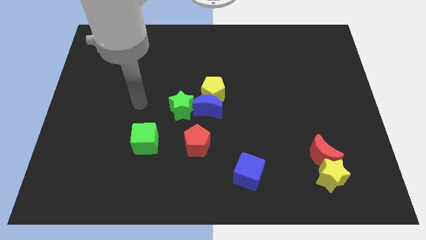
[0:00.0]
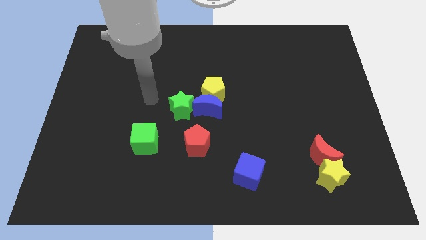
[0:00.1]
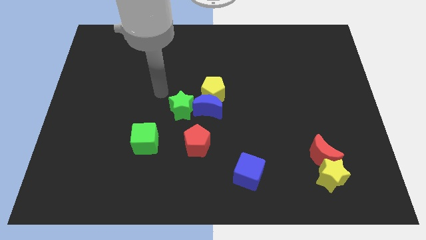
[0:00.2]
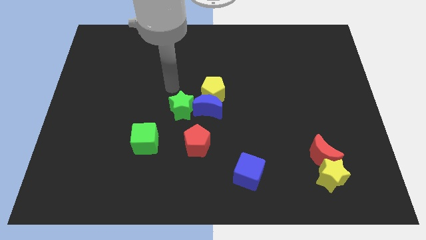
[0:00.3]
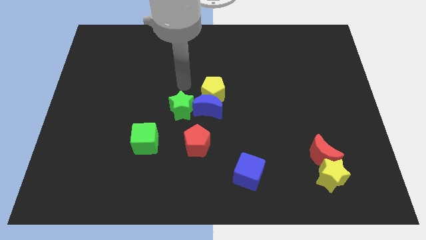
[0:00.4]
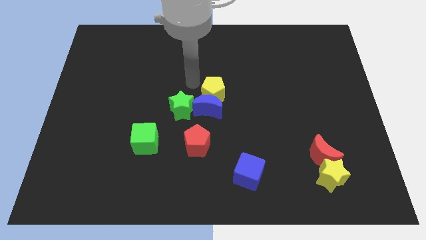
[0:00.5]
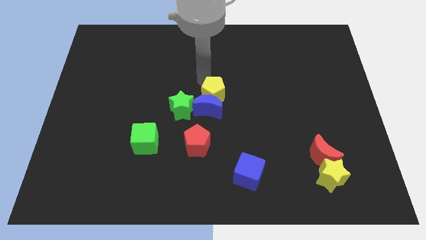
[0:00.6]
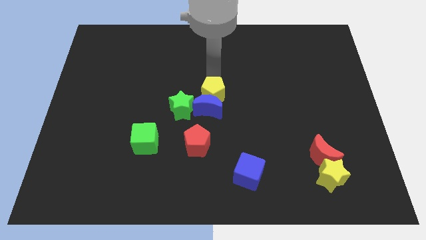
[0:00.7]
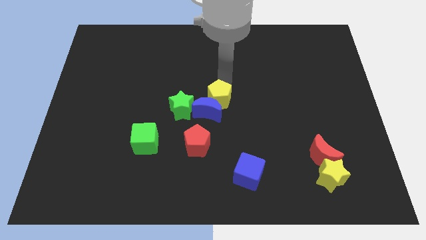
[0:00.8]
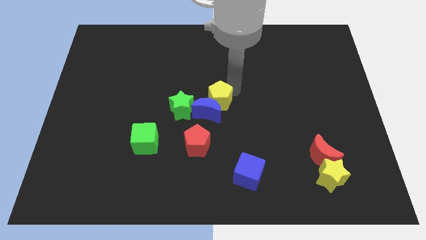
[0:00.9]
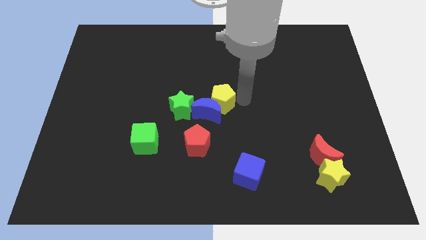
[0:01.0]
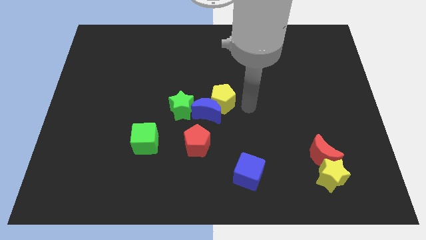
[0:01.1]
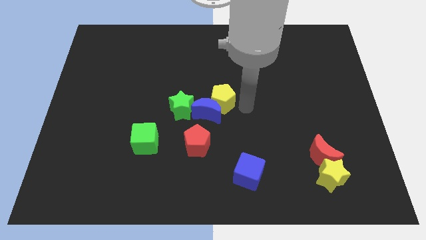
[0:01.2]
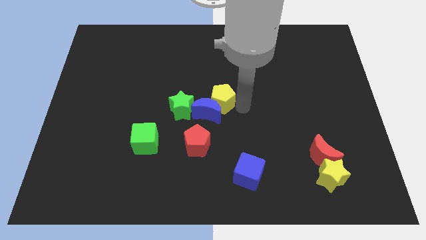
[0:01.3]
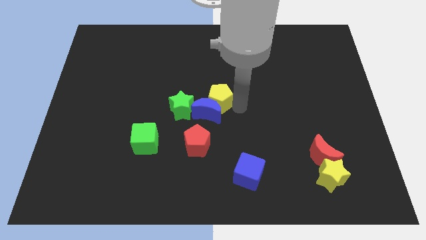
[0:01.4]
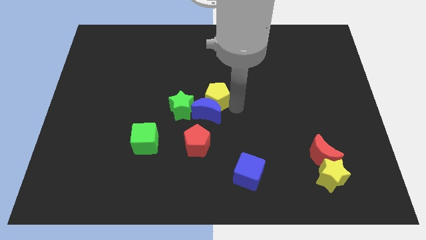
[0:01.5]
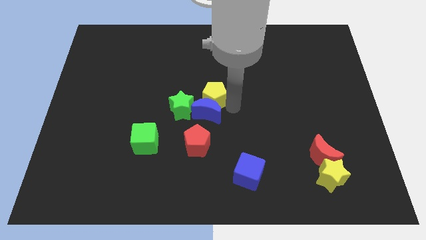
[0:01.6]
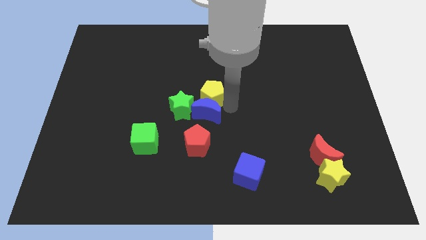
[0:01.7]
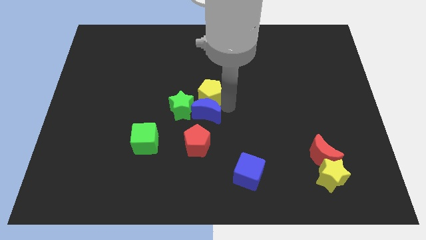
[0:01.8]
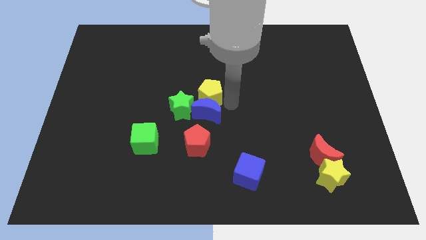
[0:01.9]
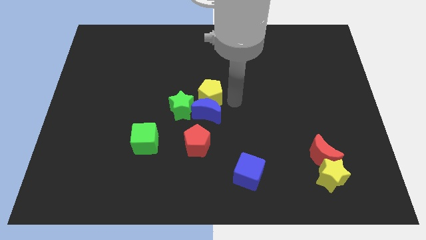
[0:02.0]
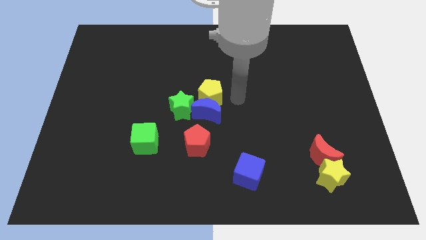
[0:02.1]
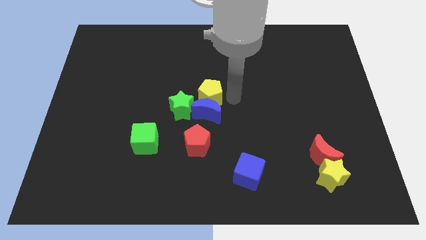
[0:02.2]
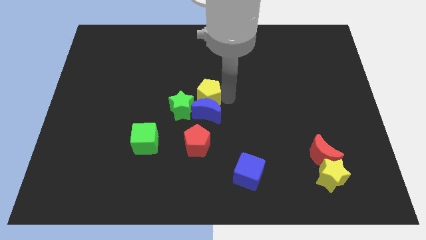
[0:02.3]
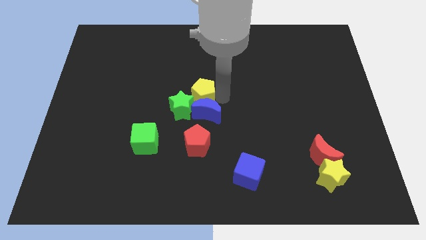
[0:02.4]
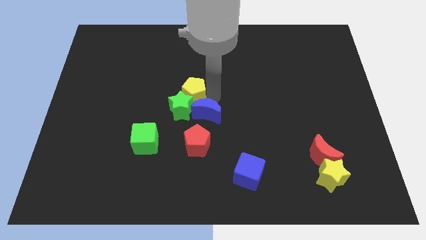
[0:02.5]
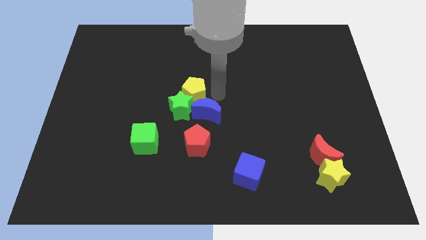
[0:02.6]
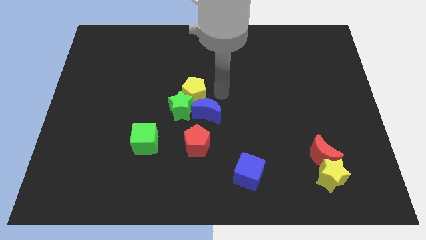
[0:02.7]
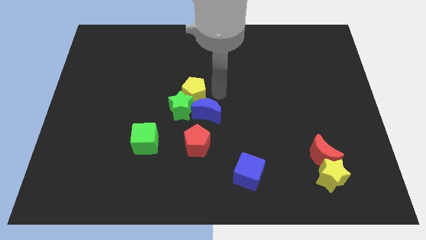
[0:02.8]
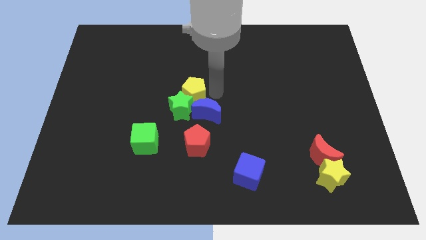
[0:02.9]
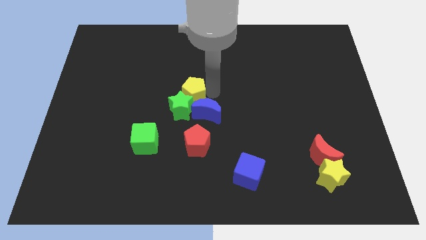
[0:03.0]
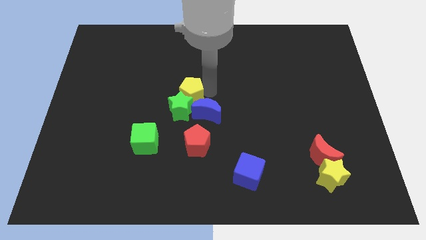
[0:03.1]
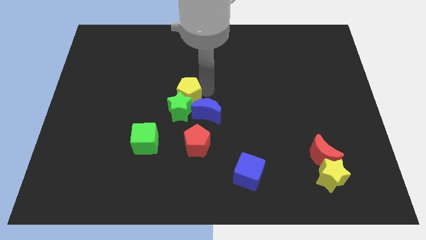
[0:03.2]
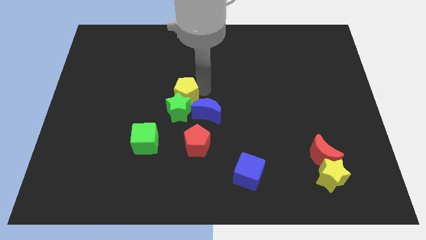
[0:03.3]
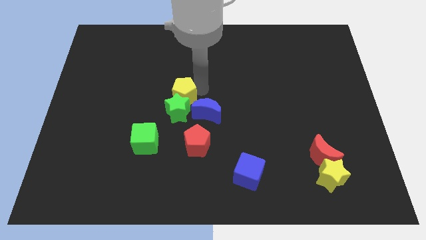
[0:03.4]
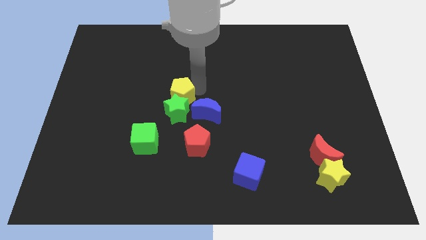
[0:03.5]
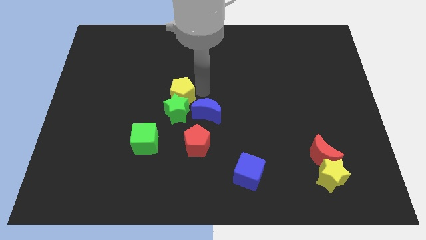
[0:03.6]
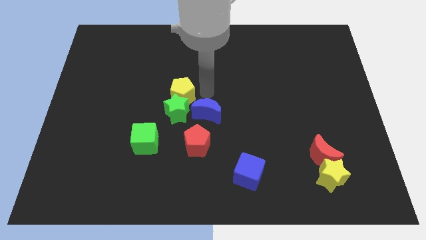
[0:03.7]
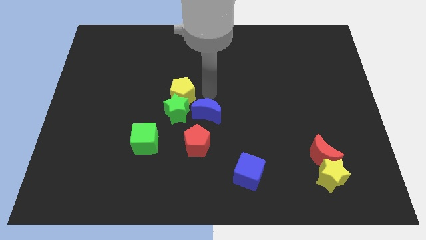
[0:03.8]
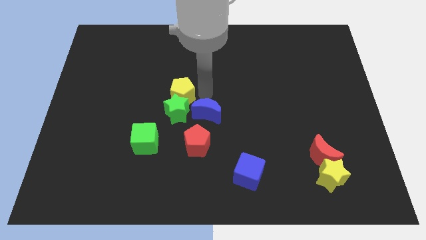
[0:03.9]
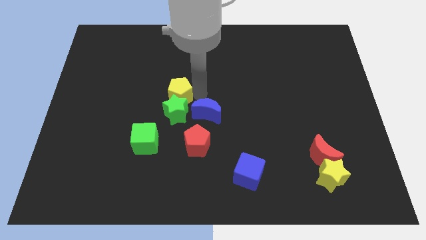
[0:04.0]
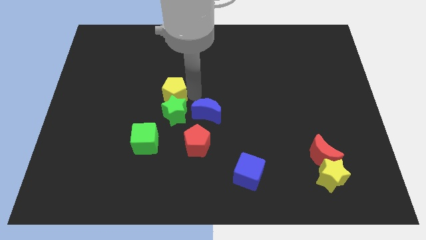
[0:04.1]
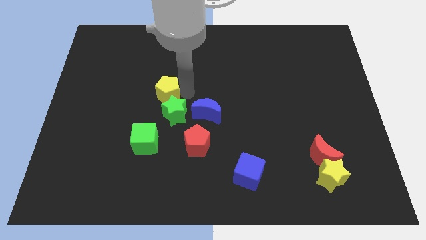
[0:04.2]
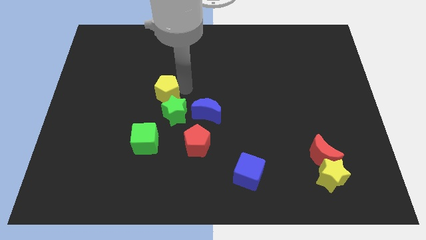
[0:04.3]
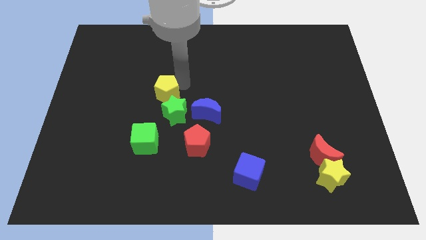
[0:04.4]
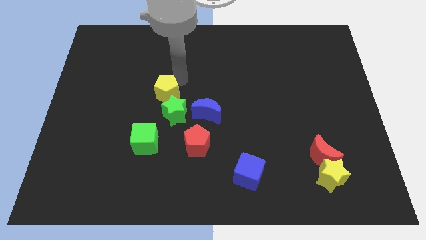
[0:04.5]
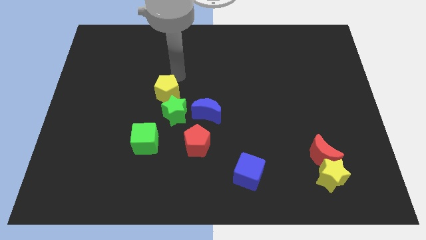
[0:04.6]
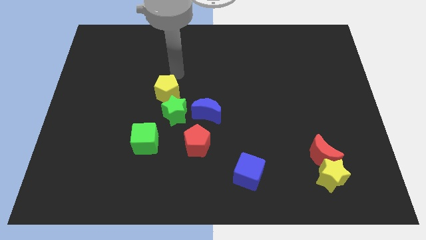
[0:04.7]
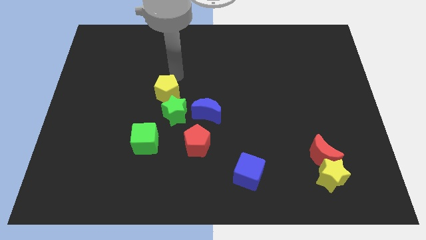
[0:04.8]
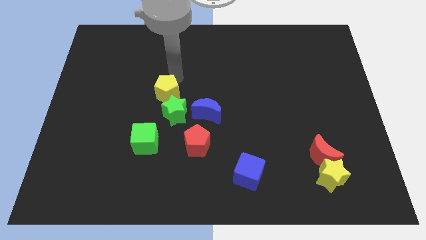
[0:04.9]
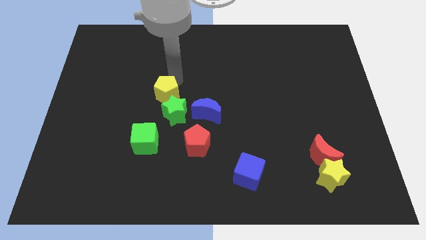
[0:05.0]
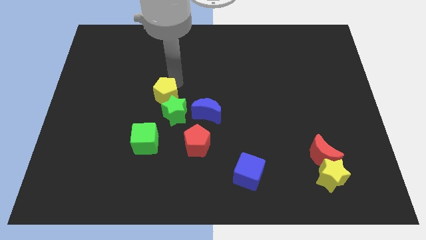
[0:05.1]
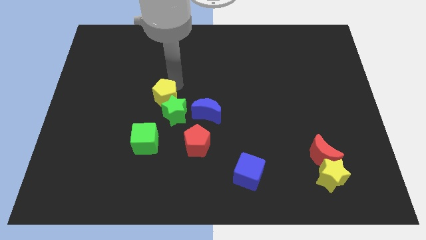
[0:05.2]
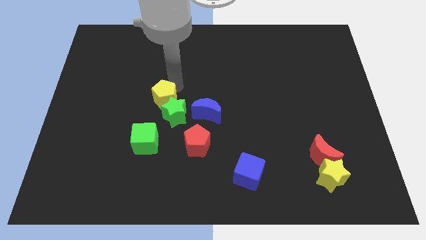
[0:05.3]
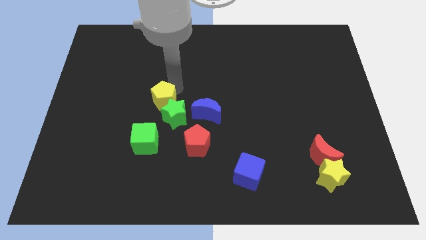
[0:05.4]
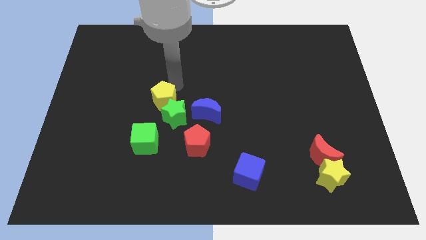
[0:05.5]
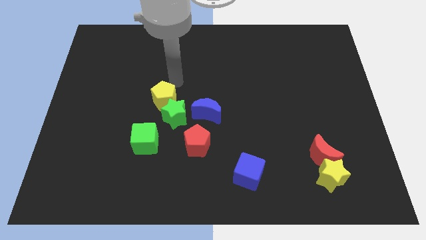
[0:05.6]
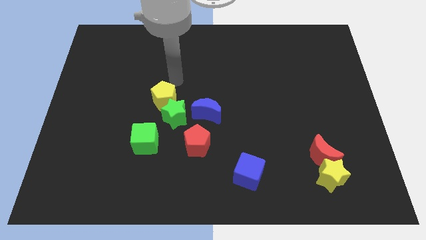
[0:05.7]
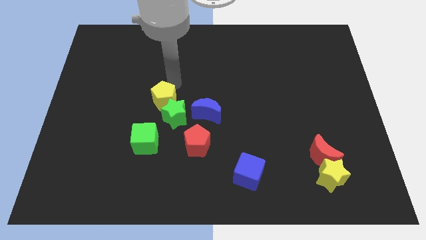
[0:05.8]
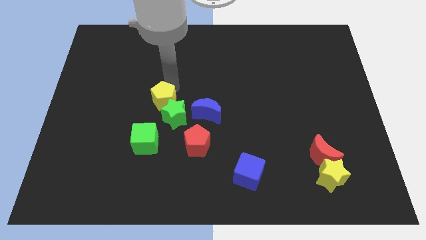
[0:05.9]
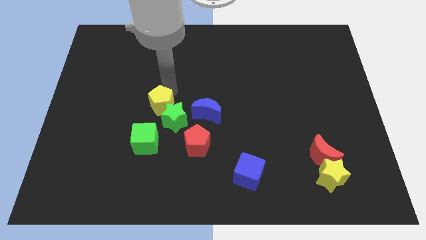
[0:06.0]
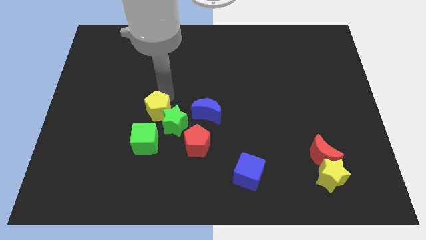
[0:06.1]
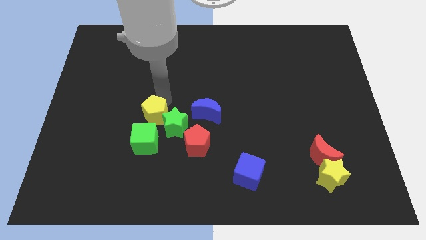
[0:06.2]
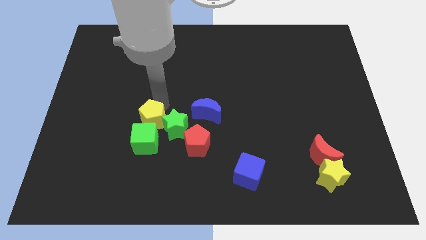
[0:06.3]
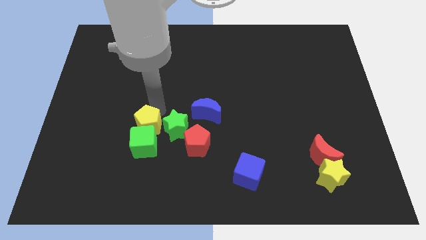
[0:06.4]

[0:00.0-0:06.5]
put the yellow pentagon next to the green cube
